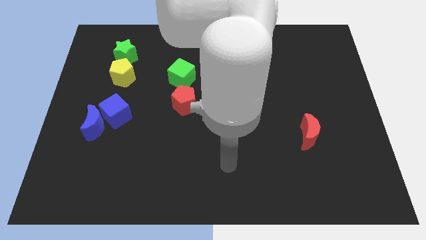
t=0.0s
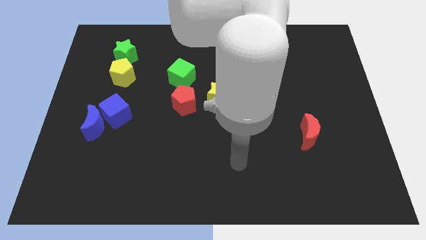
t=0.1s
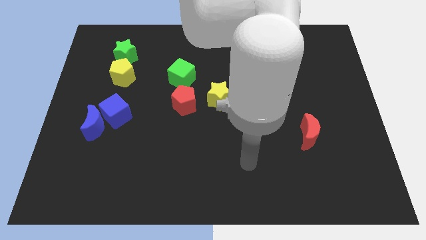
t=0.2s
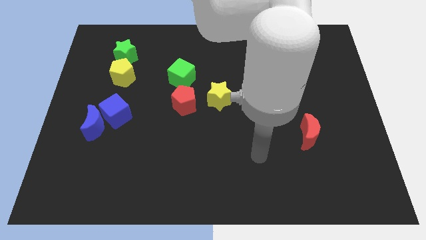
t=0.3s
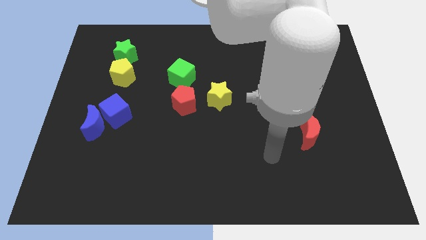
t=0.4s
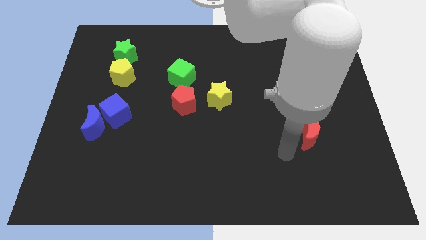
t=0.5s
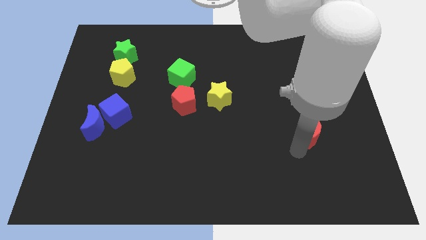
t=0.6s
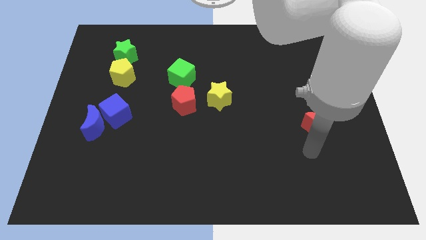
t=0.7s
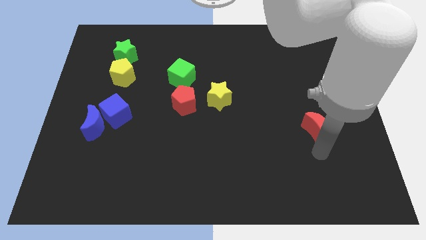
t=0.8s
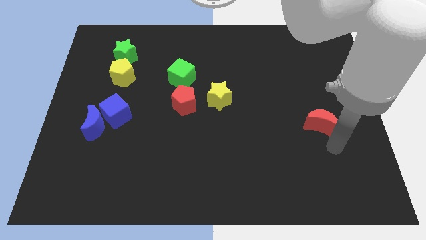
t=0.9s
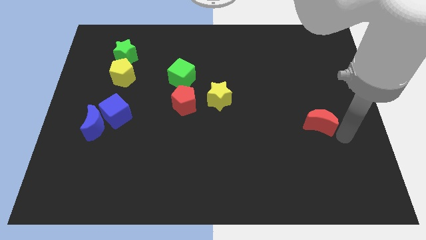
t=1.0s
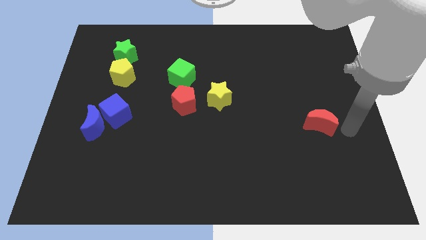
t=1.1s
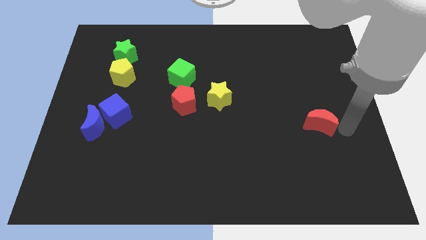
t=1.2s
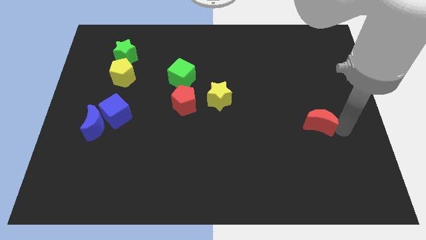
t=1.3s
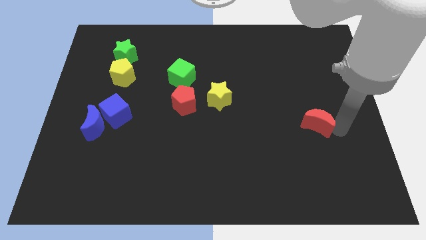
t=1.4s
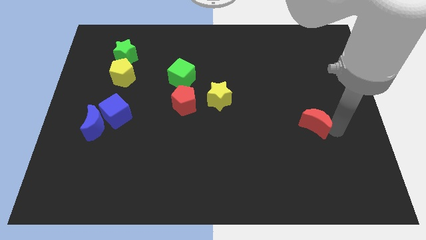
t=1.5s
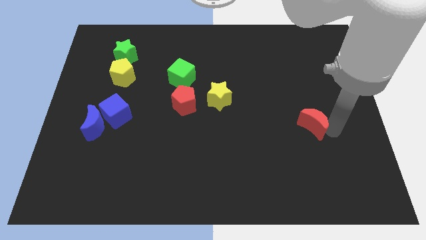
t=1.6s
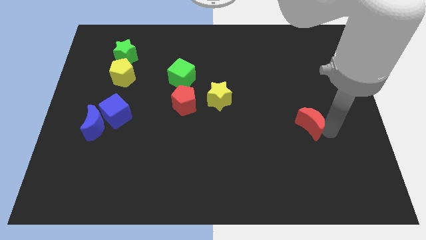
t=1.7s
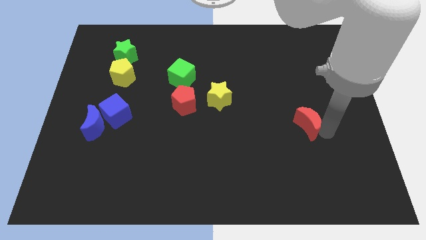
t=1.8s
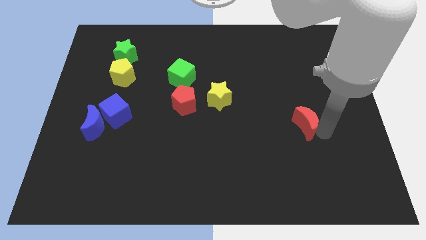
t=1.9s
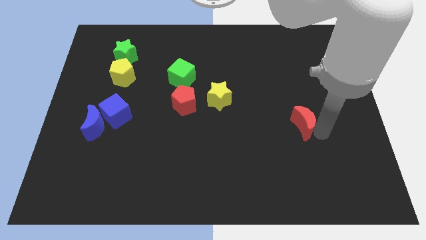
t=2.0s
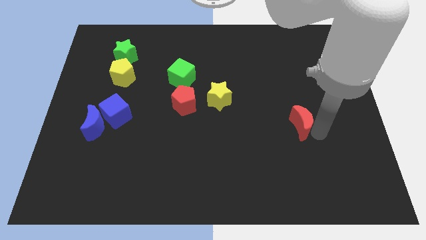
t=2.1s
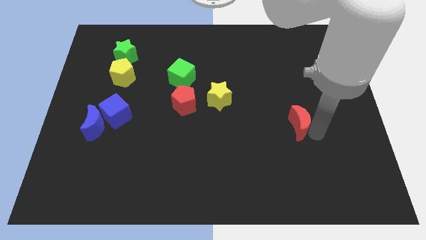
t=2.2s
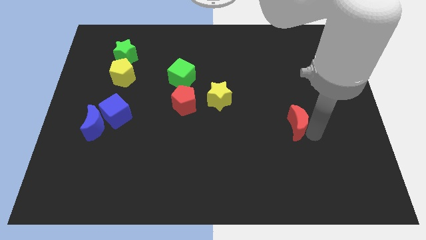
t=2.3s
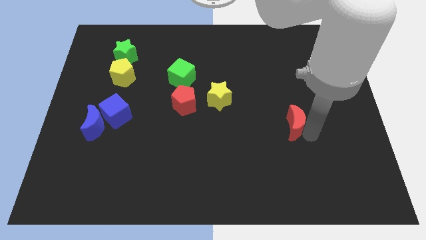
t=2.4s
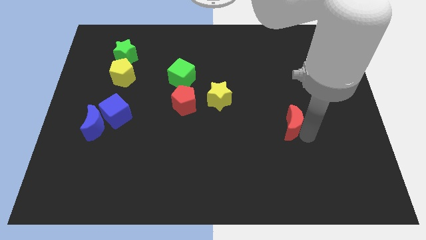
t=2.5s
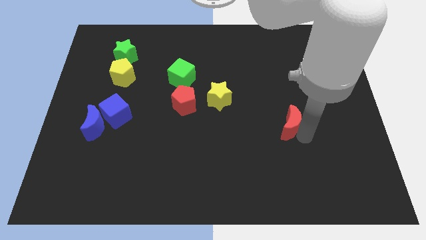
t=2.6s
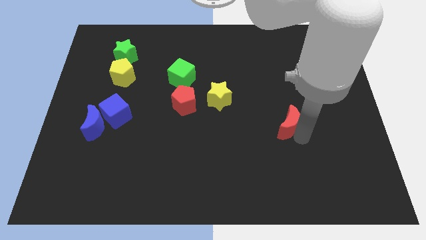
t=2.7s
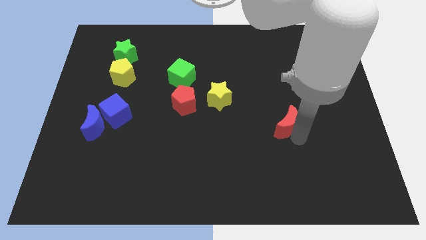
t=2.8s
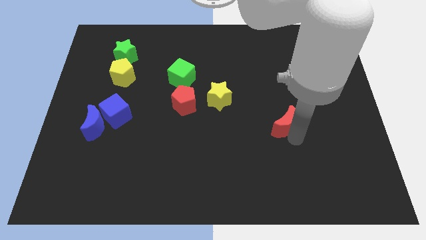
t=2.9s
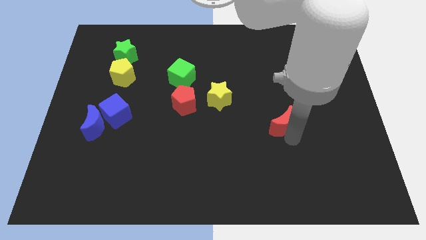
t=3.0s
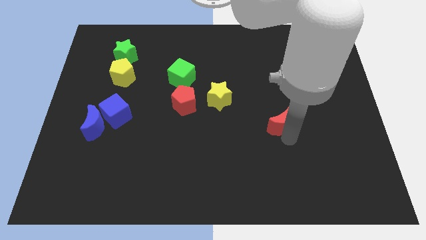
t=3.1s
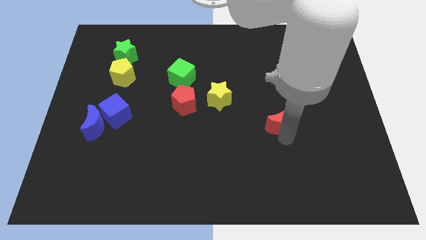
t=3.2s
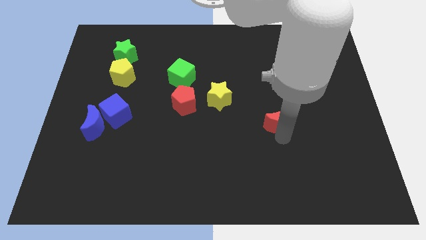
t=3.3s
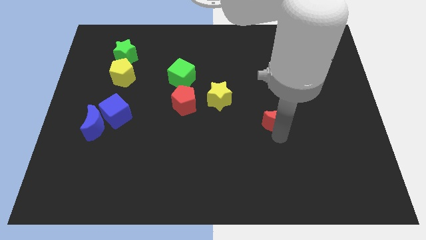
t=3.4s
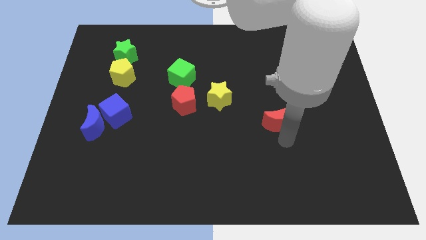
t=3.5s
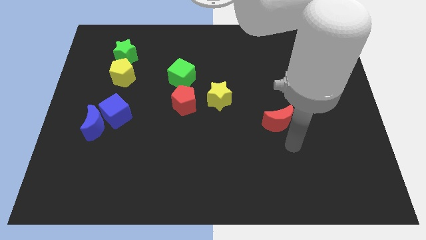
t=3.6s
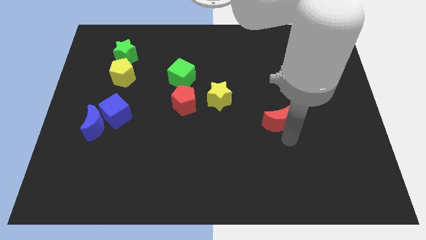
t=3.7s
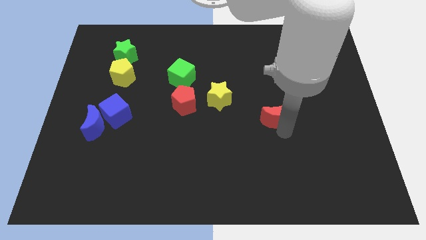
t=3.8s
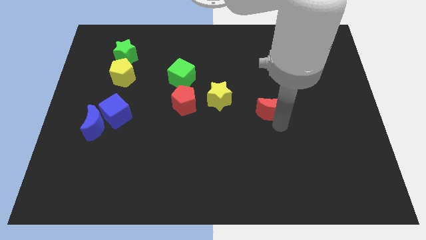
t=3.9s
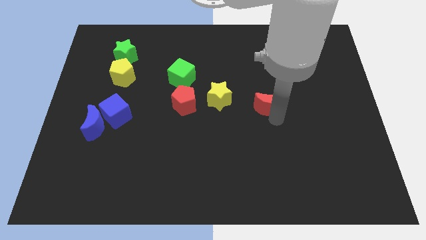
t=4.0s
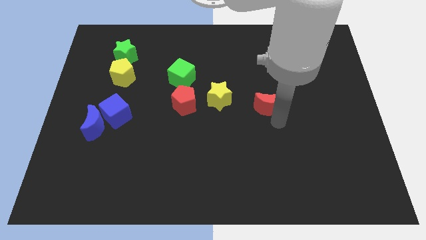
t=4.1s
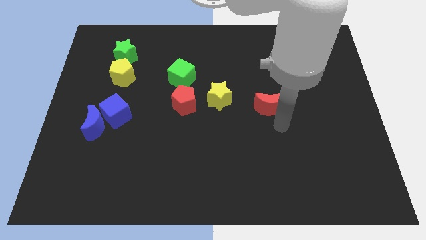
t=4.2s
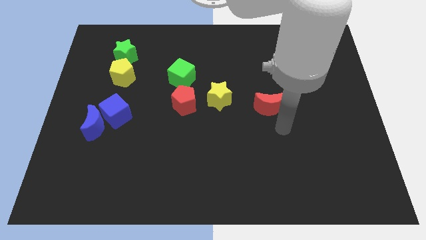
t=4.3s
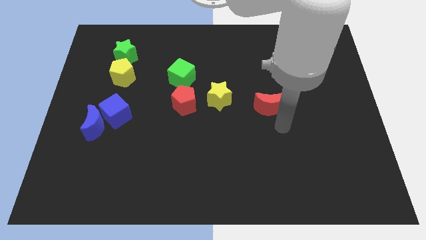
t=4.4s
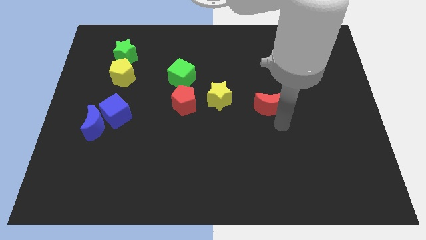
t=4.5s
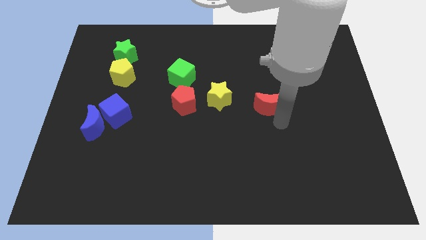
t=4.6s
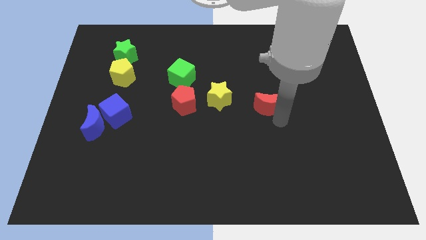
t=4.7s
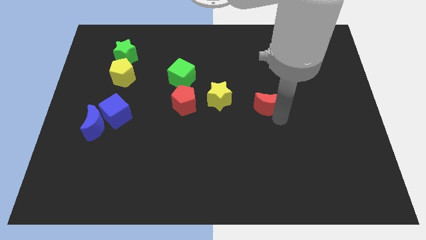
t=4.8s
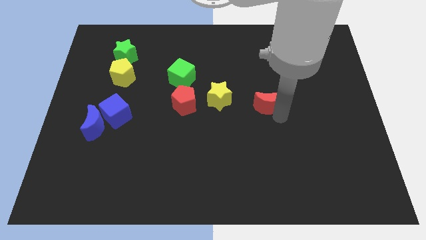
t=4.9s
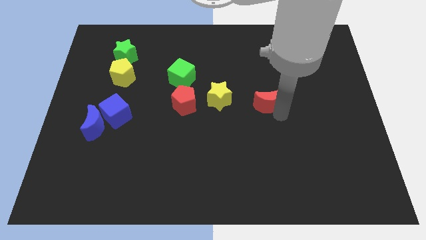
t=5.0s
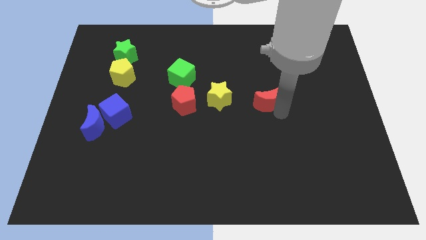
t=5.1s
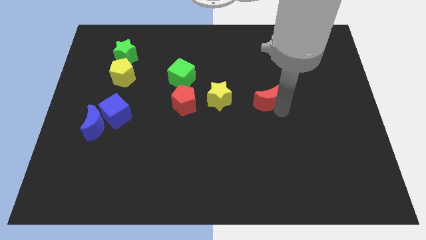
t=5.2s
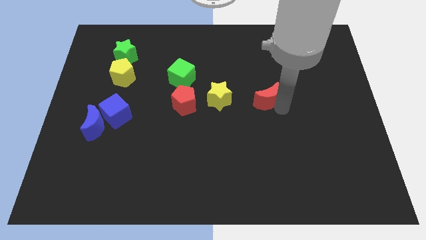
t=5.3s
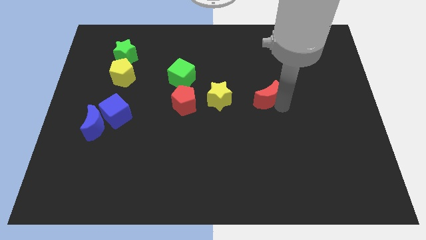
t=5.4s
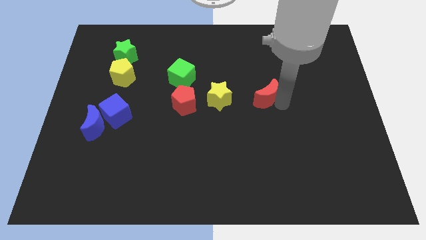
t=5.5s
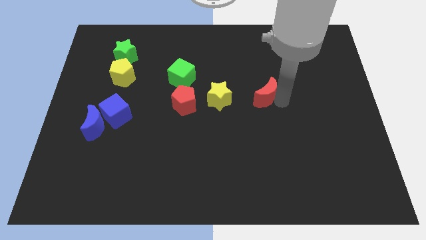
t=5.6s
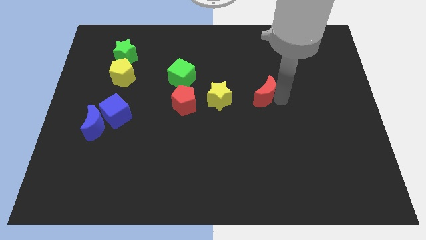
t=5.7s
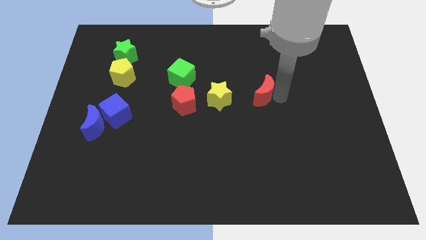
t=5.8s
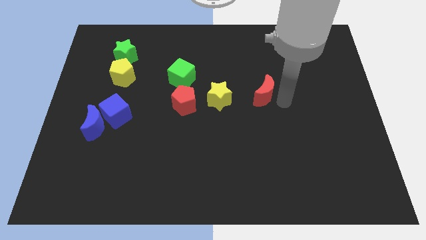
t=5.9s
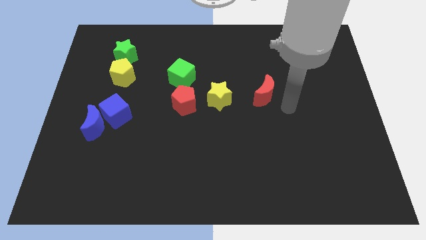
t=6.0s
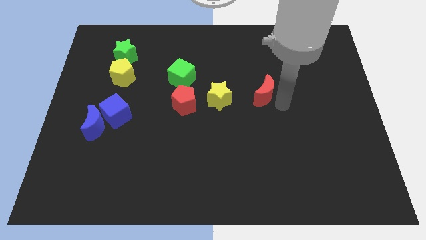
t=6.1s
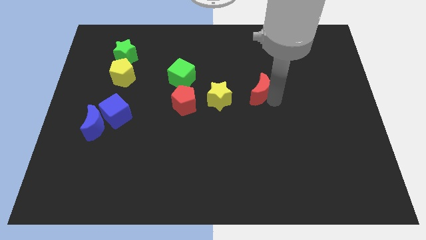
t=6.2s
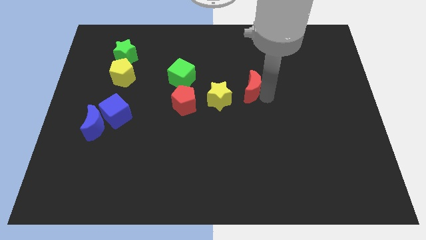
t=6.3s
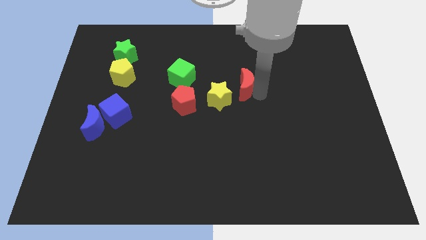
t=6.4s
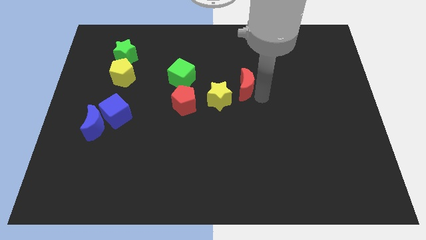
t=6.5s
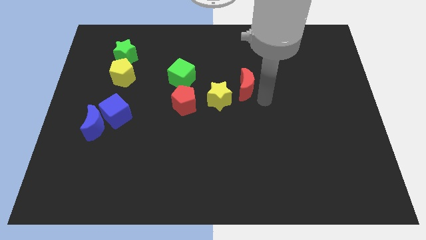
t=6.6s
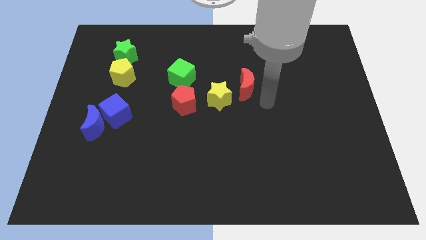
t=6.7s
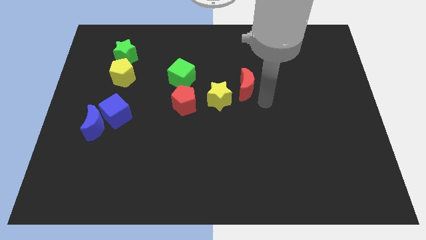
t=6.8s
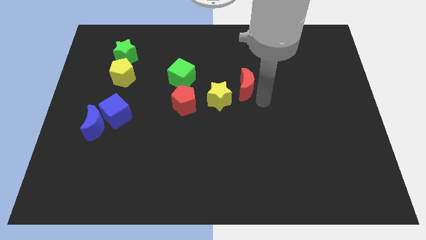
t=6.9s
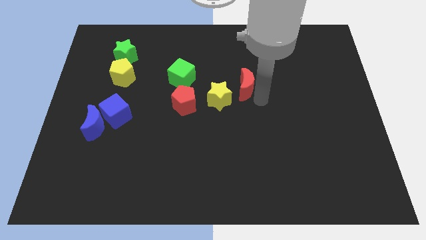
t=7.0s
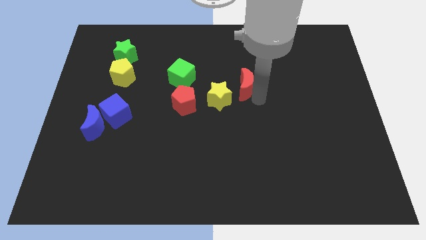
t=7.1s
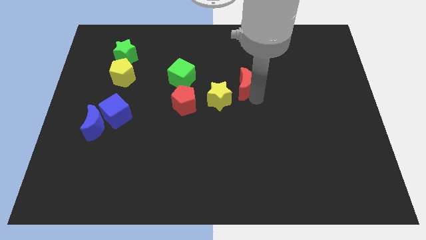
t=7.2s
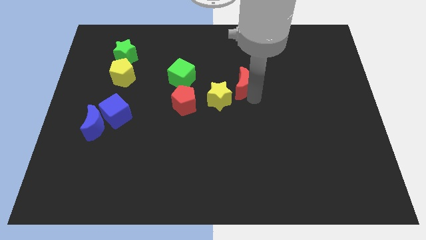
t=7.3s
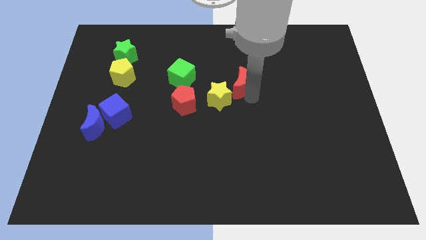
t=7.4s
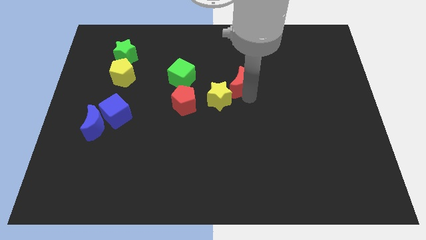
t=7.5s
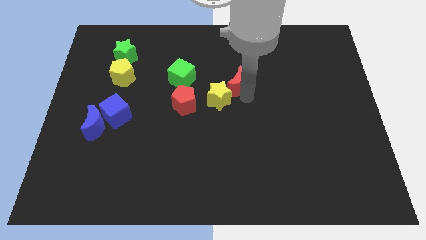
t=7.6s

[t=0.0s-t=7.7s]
push the red moon to the top of the yellow star
